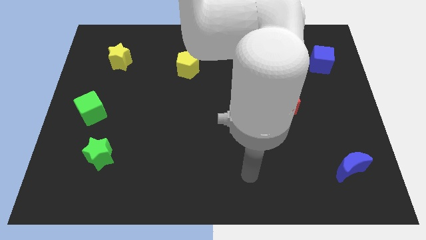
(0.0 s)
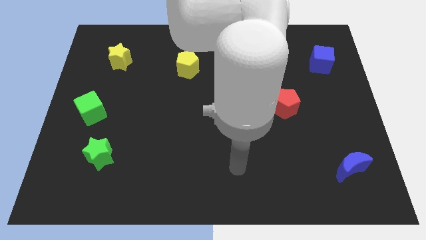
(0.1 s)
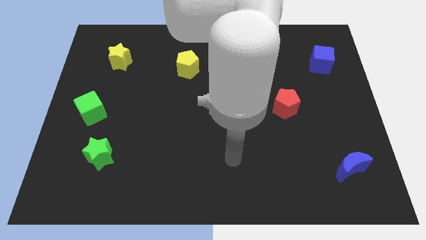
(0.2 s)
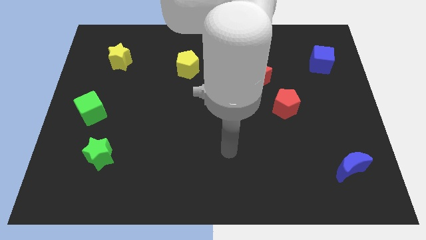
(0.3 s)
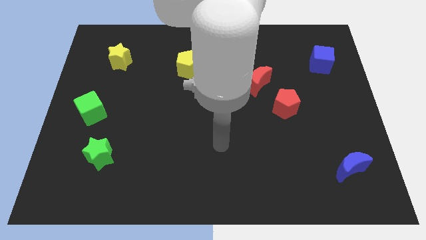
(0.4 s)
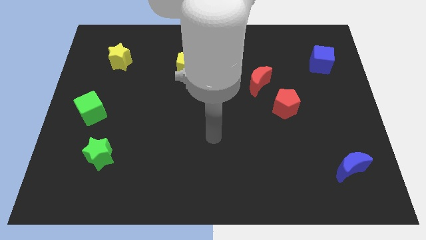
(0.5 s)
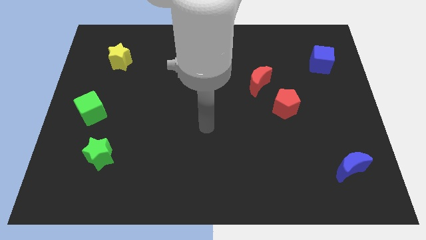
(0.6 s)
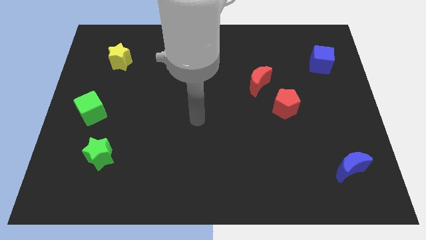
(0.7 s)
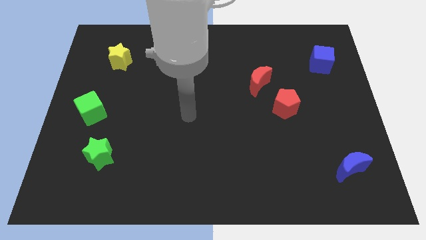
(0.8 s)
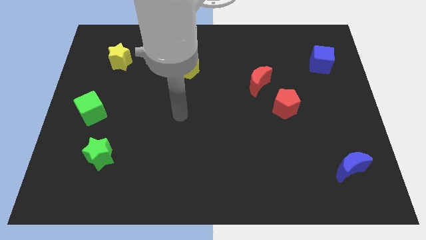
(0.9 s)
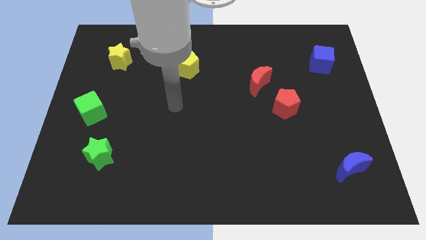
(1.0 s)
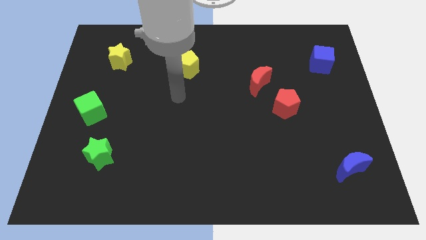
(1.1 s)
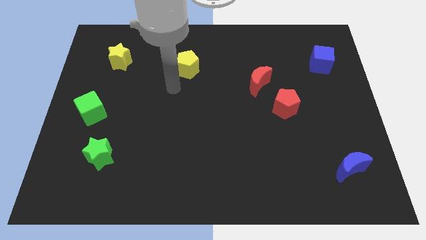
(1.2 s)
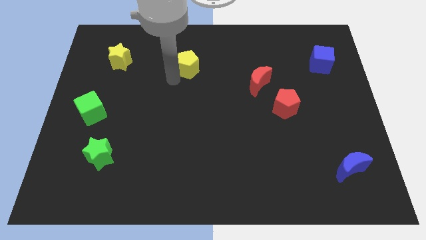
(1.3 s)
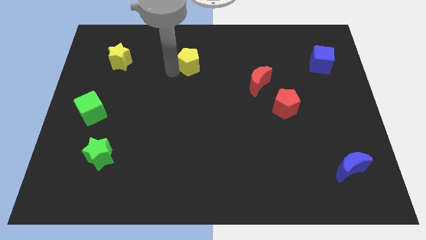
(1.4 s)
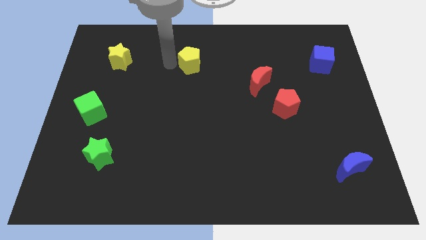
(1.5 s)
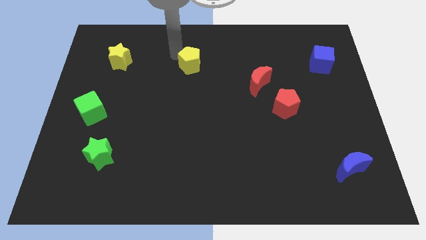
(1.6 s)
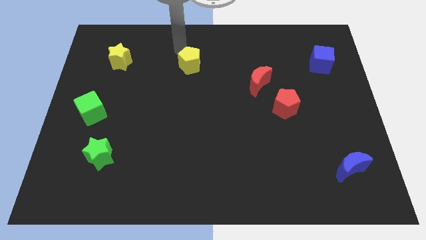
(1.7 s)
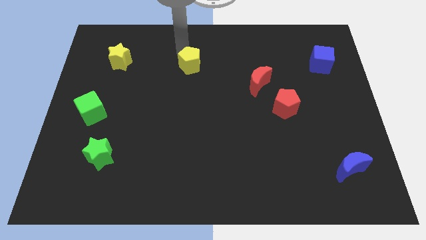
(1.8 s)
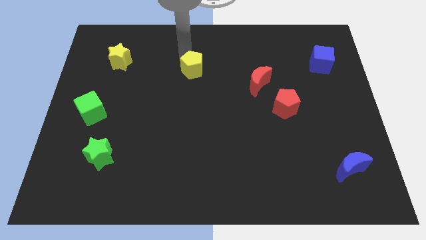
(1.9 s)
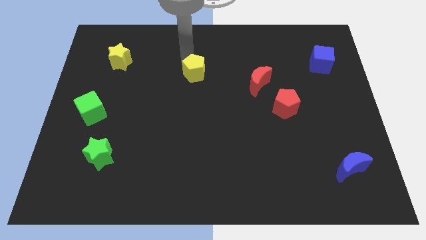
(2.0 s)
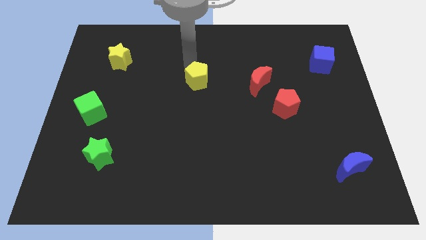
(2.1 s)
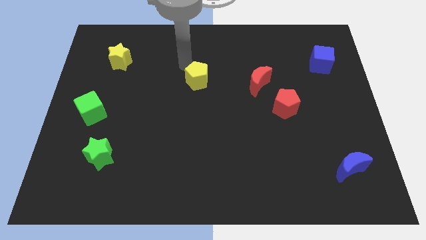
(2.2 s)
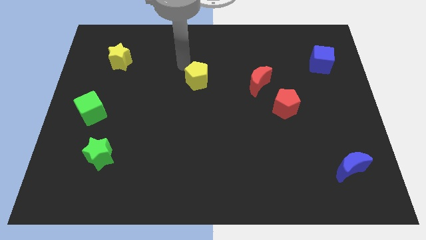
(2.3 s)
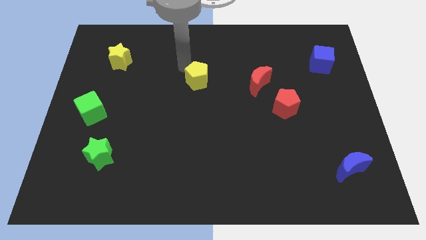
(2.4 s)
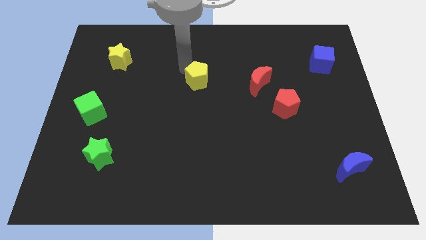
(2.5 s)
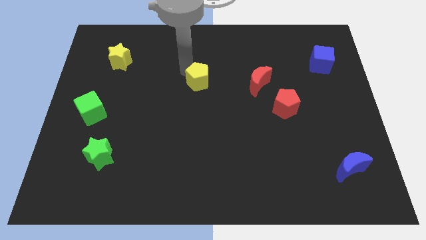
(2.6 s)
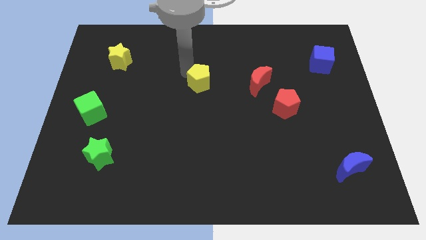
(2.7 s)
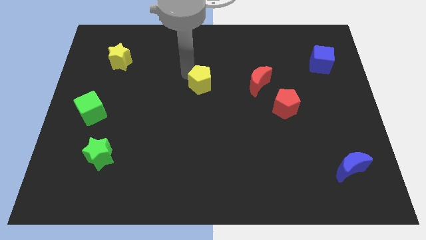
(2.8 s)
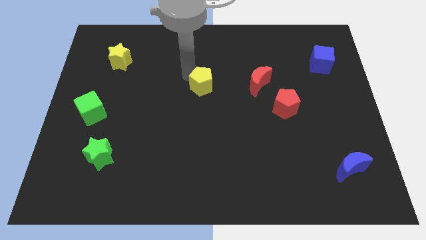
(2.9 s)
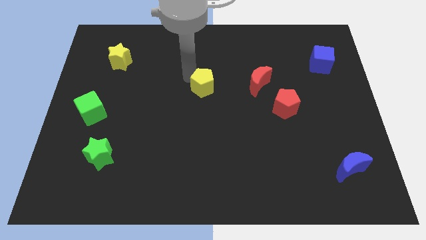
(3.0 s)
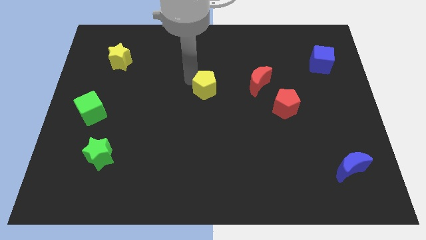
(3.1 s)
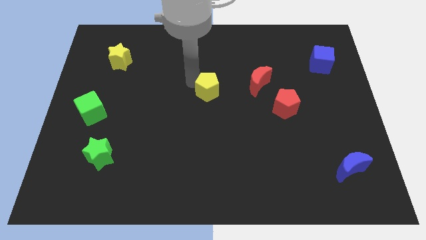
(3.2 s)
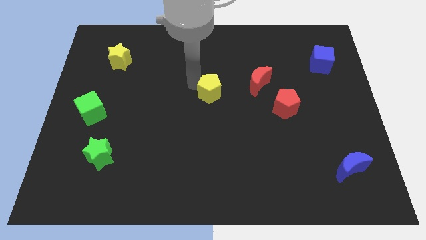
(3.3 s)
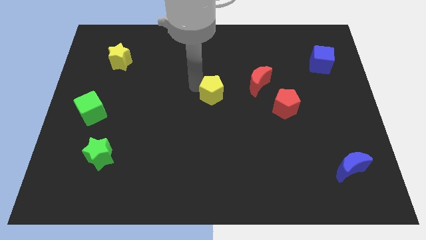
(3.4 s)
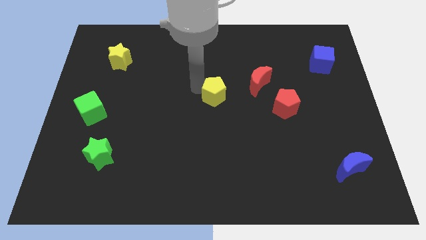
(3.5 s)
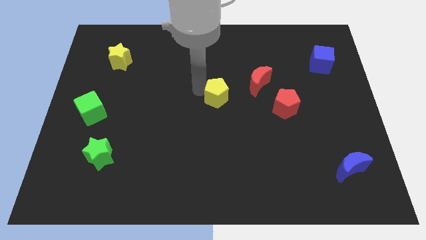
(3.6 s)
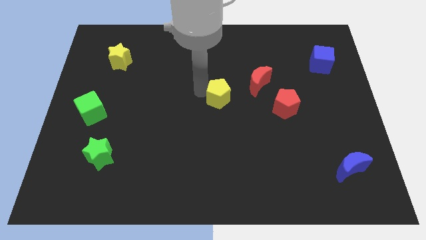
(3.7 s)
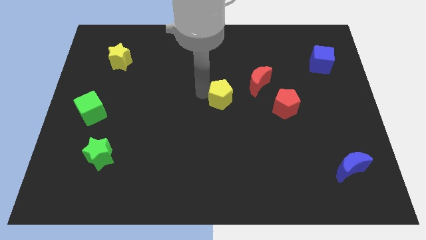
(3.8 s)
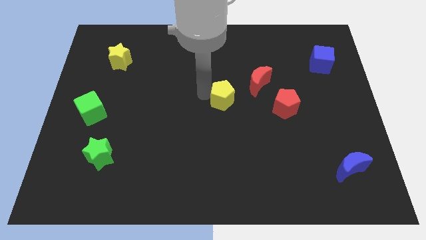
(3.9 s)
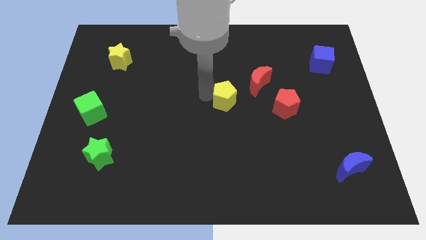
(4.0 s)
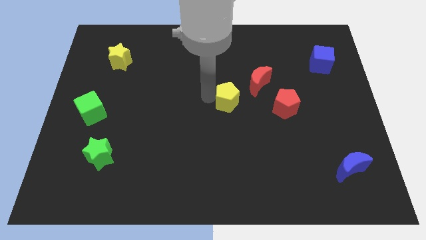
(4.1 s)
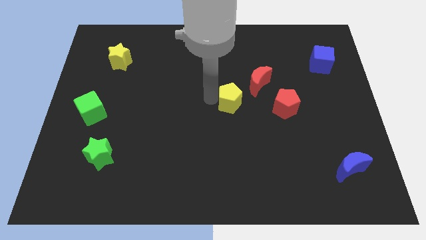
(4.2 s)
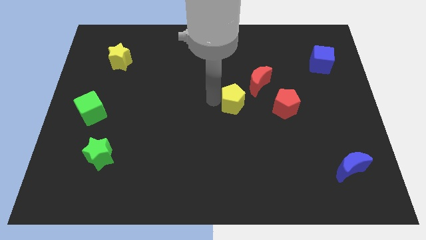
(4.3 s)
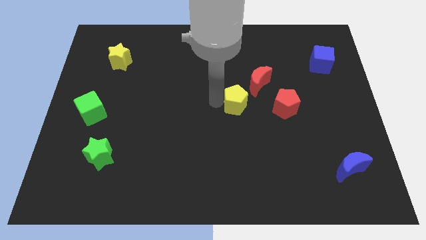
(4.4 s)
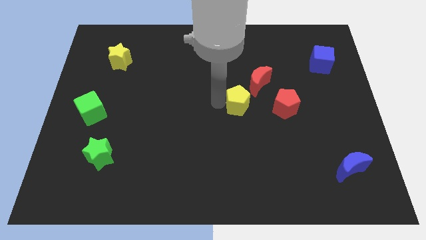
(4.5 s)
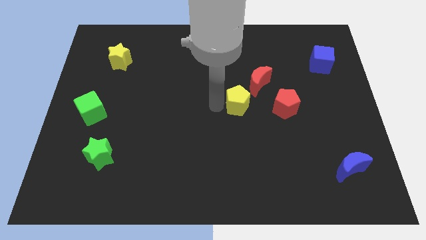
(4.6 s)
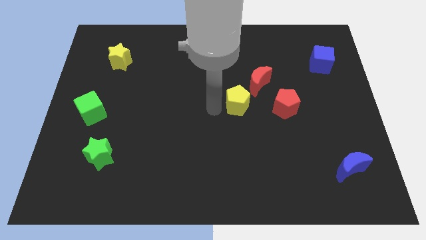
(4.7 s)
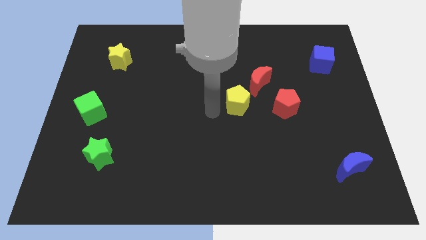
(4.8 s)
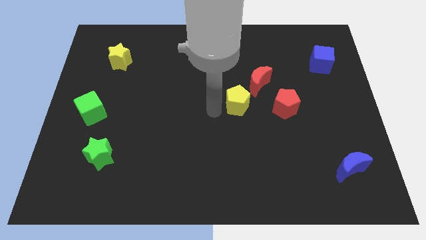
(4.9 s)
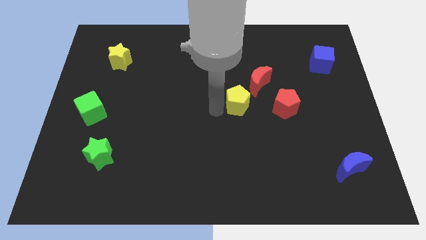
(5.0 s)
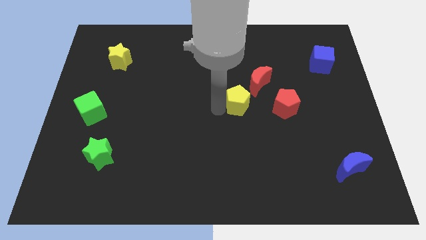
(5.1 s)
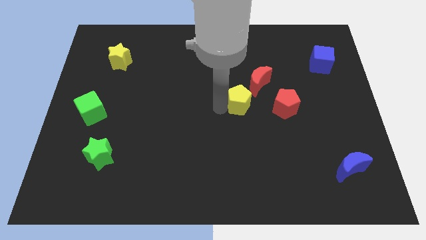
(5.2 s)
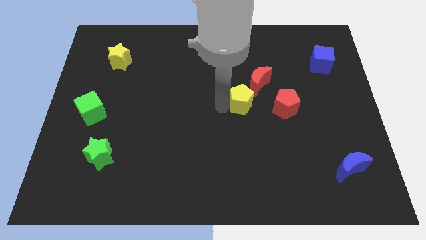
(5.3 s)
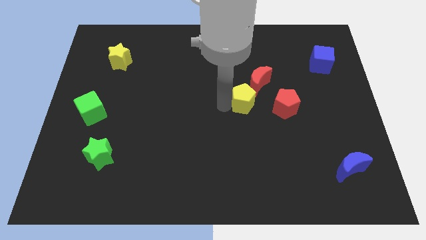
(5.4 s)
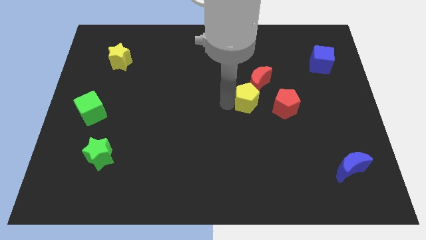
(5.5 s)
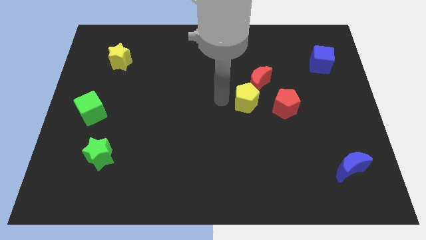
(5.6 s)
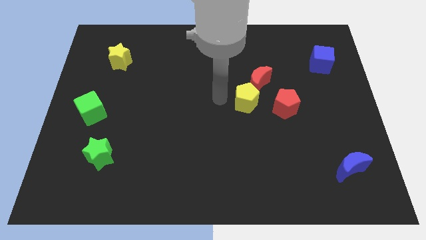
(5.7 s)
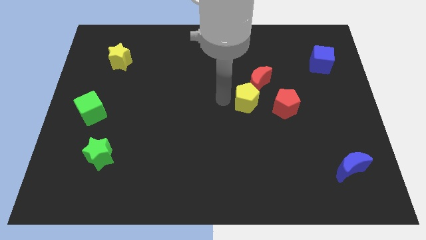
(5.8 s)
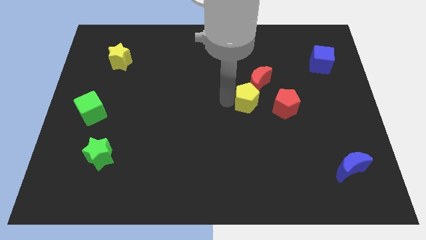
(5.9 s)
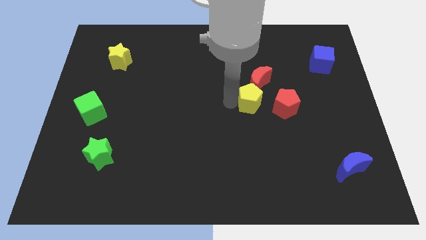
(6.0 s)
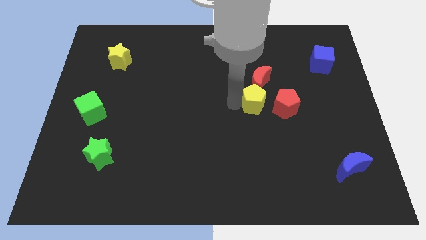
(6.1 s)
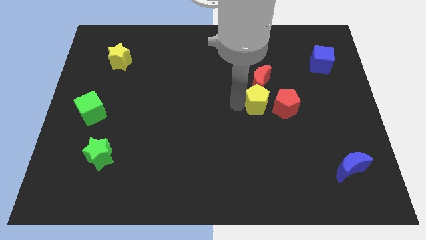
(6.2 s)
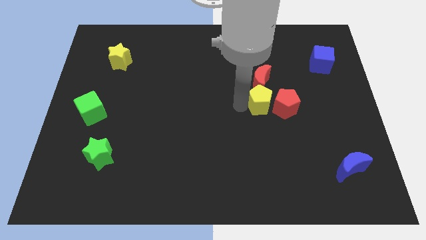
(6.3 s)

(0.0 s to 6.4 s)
slide the yellow pentagon next to the red pentagon

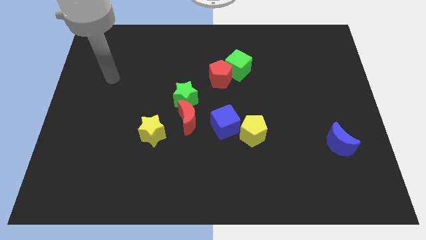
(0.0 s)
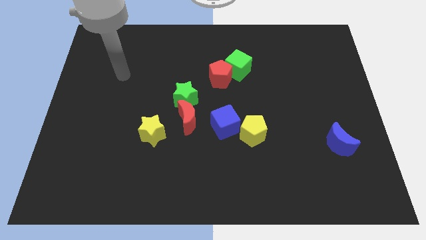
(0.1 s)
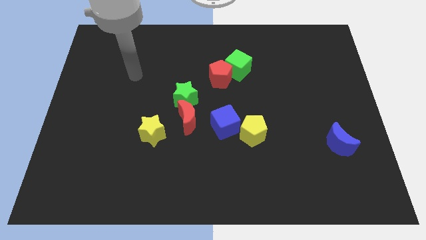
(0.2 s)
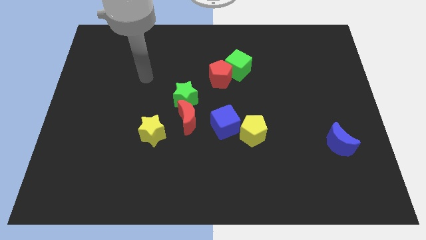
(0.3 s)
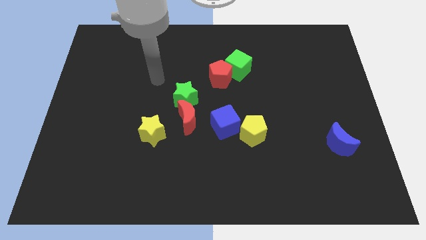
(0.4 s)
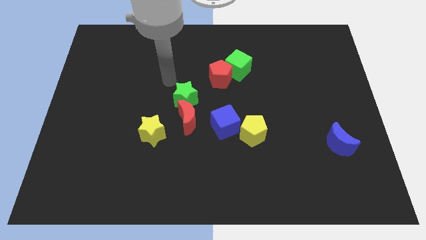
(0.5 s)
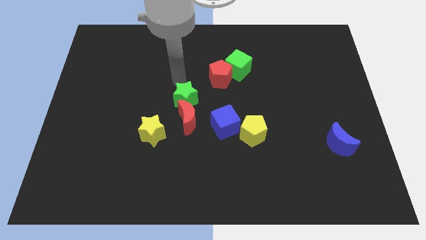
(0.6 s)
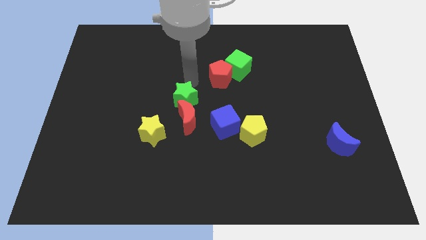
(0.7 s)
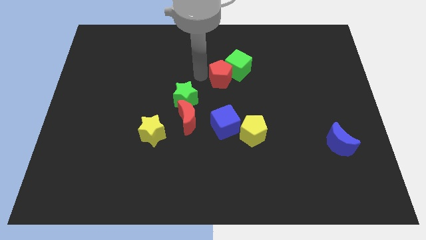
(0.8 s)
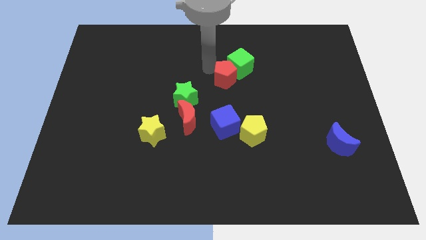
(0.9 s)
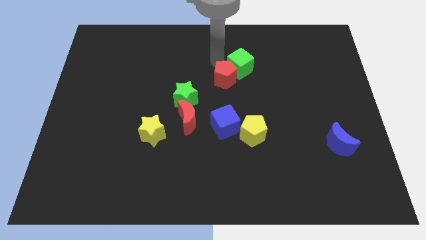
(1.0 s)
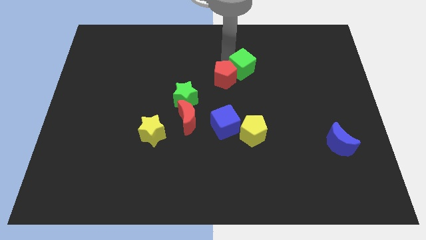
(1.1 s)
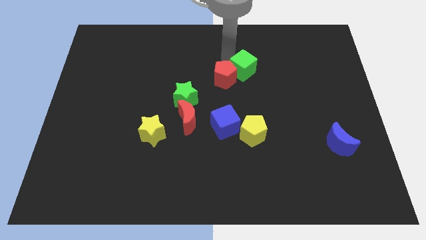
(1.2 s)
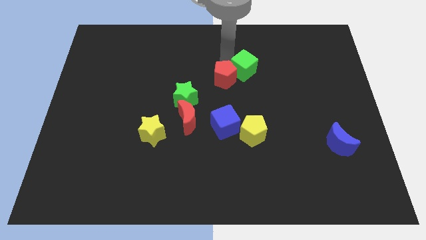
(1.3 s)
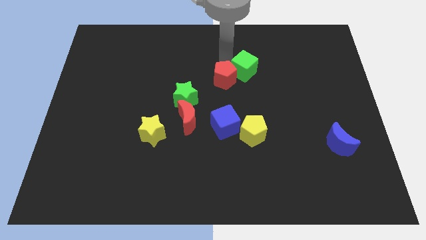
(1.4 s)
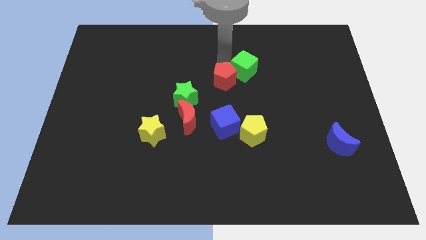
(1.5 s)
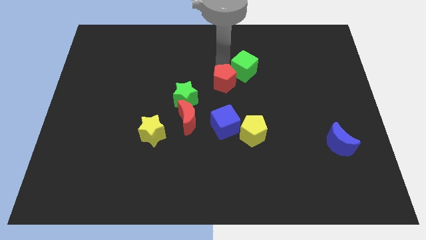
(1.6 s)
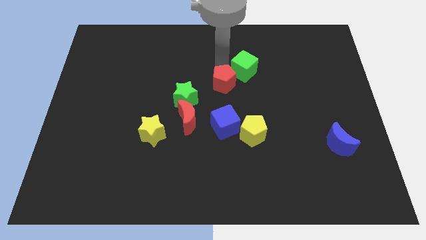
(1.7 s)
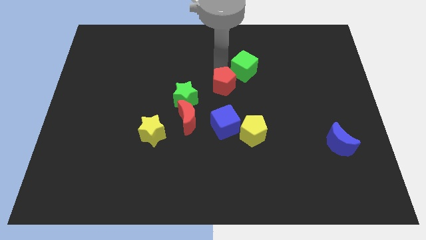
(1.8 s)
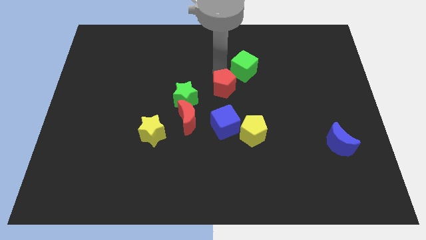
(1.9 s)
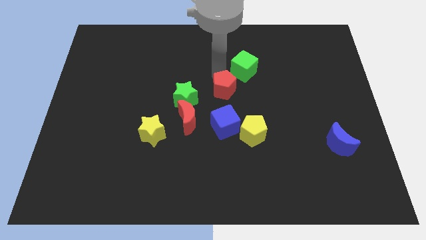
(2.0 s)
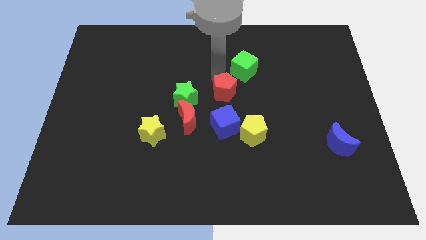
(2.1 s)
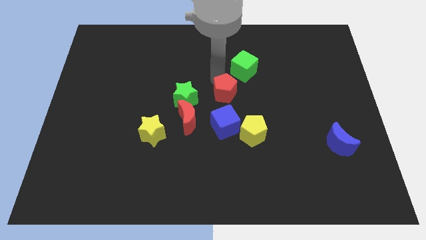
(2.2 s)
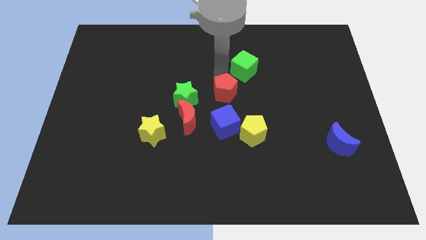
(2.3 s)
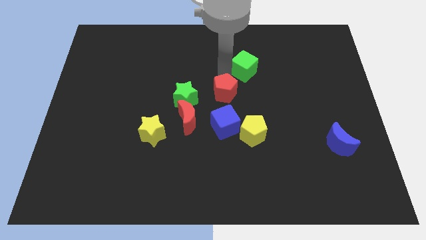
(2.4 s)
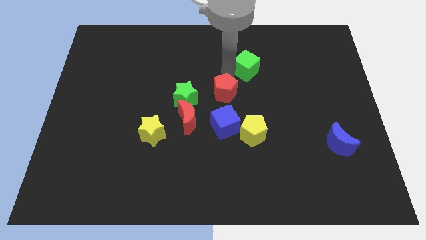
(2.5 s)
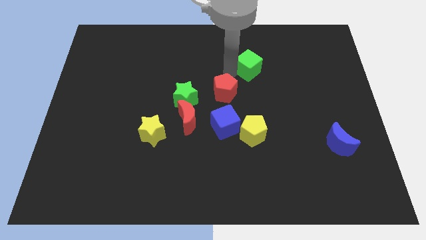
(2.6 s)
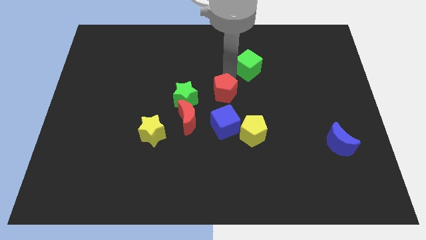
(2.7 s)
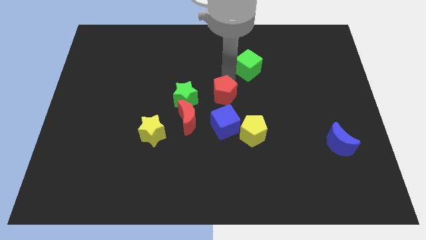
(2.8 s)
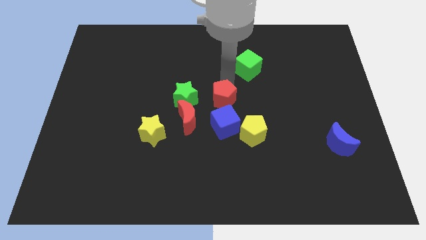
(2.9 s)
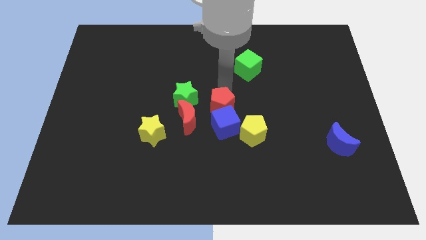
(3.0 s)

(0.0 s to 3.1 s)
slide the red pentagon close to the blue cube
